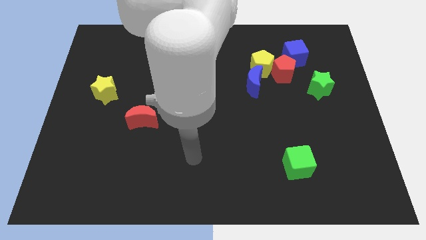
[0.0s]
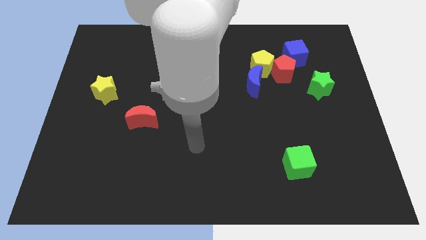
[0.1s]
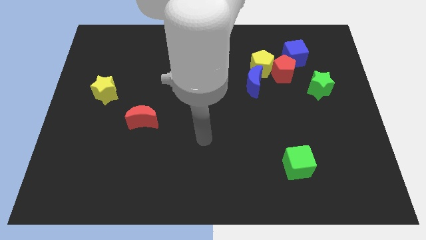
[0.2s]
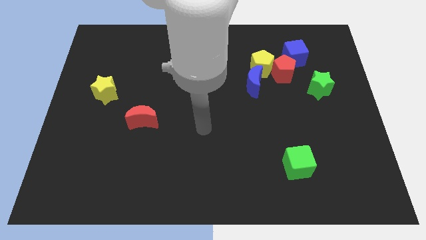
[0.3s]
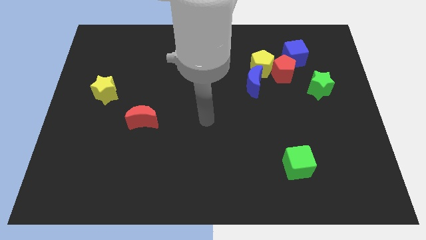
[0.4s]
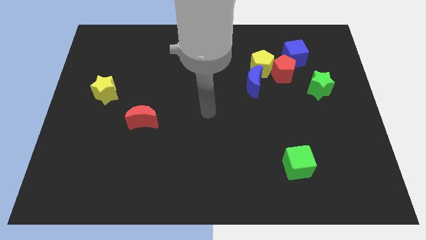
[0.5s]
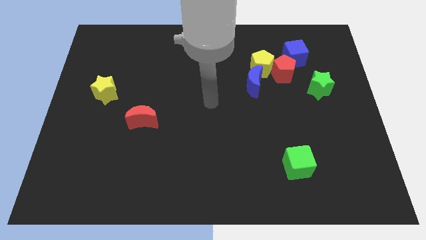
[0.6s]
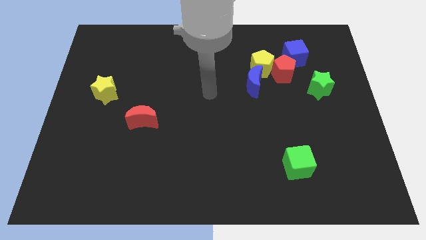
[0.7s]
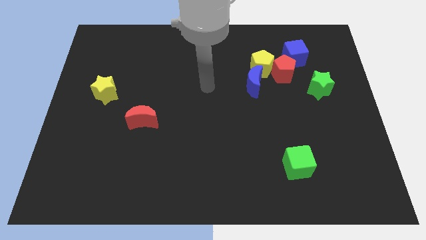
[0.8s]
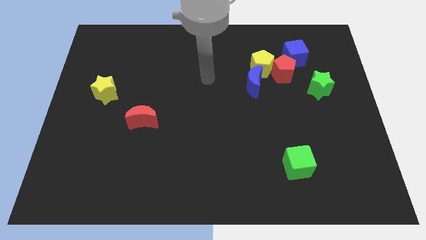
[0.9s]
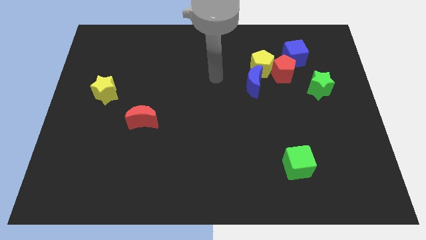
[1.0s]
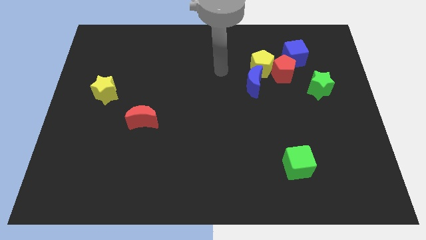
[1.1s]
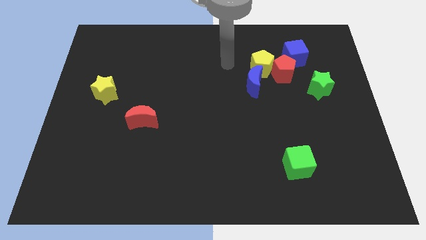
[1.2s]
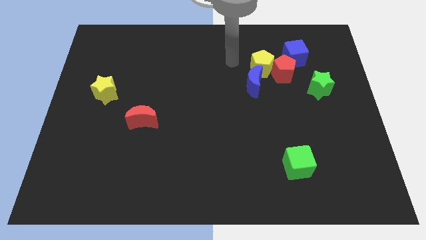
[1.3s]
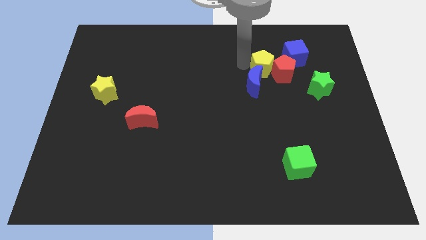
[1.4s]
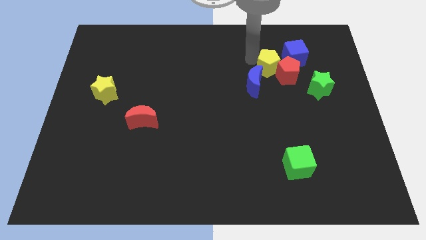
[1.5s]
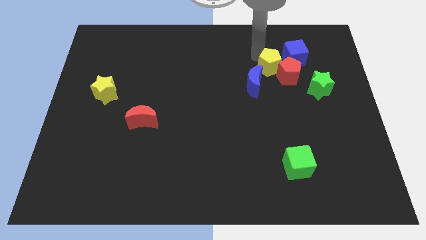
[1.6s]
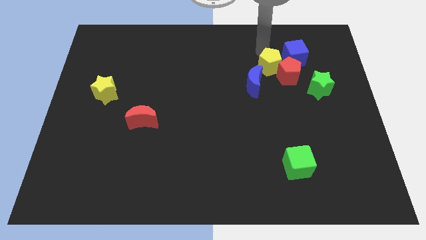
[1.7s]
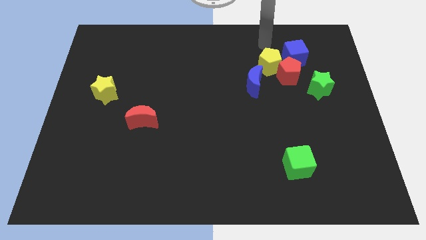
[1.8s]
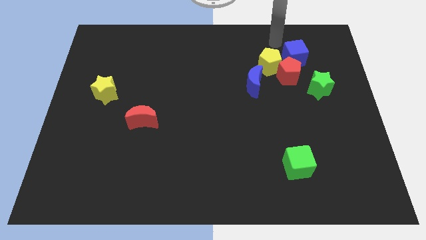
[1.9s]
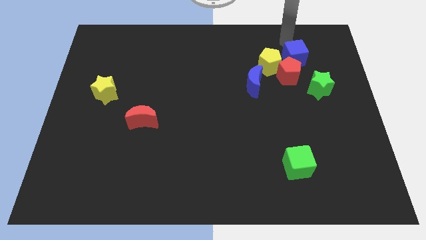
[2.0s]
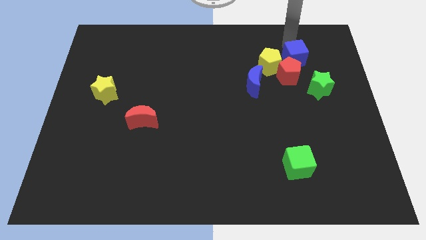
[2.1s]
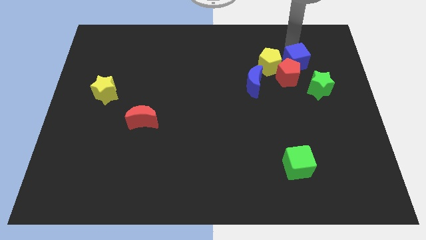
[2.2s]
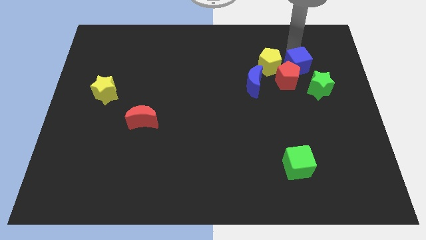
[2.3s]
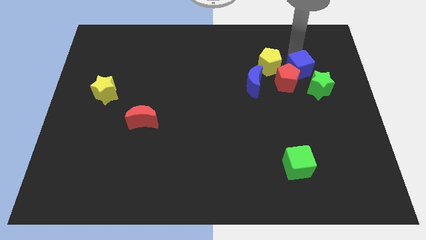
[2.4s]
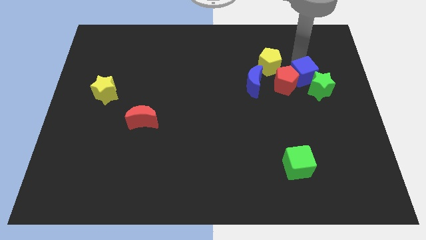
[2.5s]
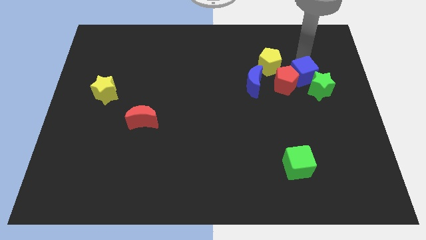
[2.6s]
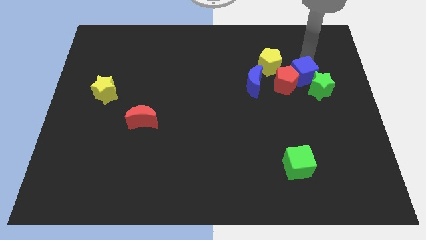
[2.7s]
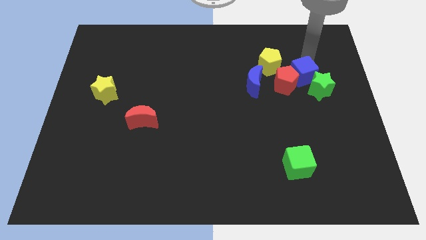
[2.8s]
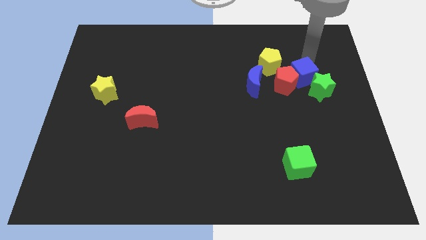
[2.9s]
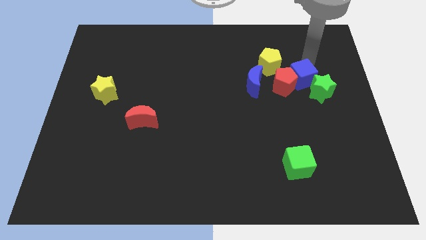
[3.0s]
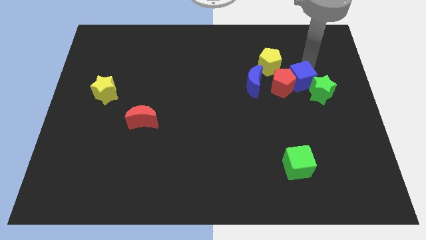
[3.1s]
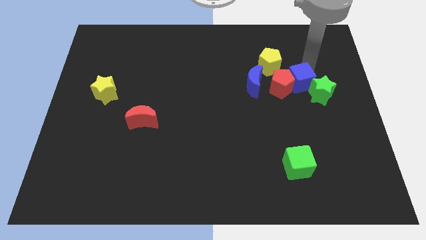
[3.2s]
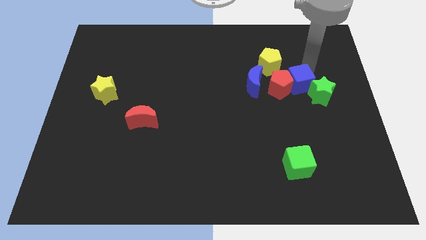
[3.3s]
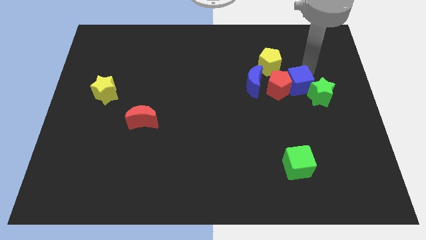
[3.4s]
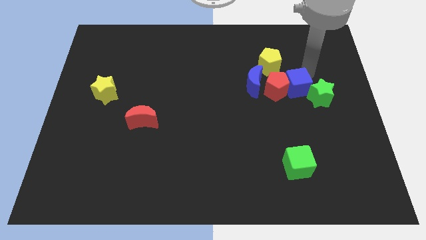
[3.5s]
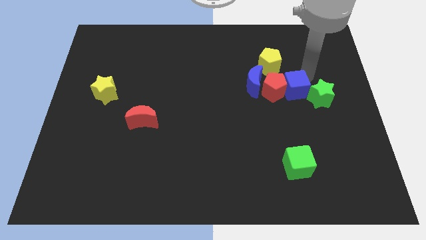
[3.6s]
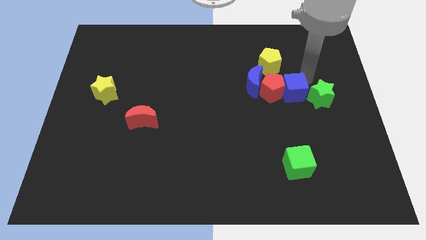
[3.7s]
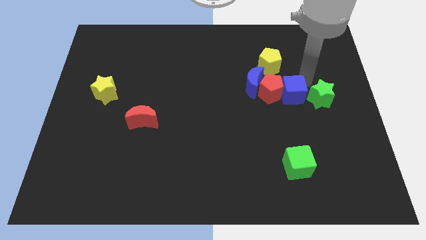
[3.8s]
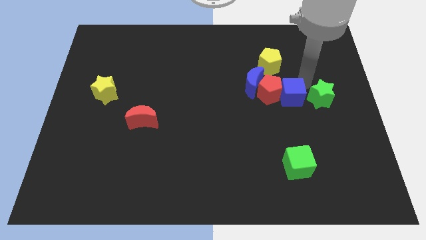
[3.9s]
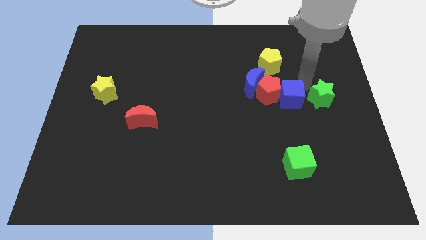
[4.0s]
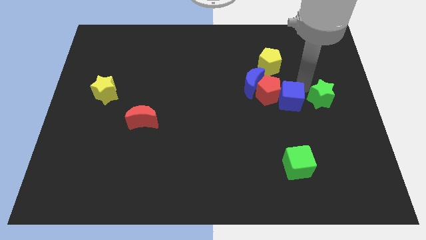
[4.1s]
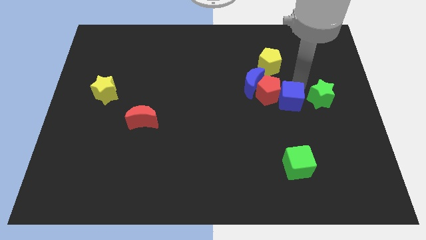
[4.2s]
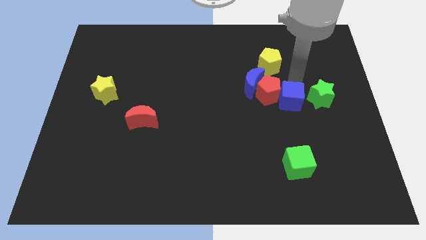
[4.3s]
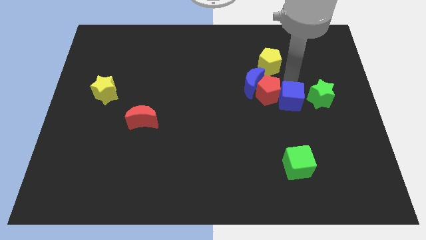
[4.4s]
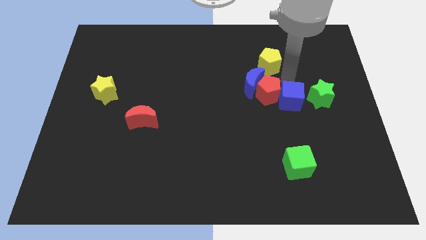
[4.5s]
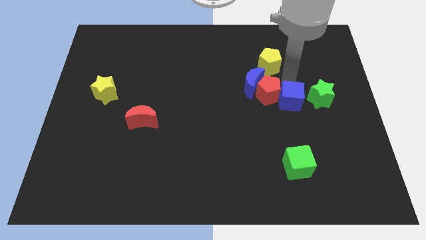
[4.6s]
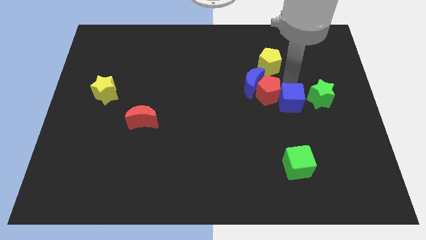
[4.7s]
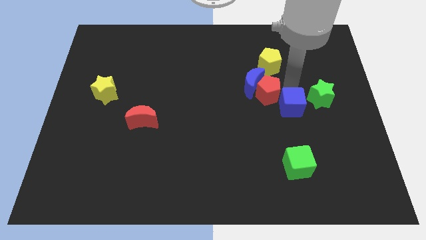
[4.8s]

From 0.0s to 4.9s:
put the blue cube above the green cube

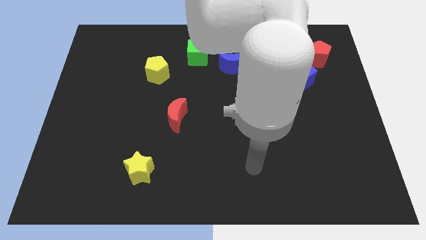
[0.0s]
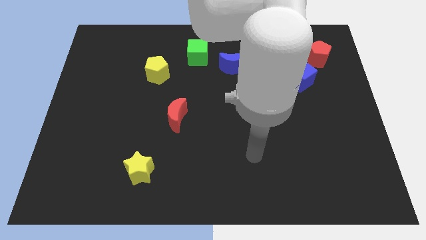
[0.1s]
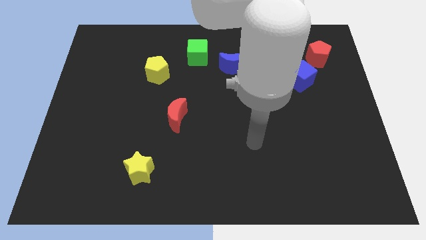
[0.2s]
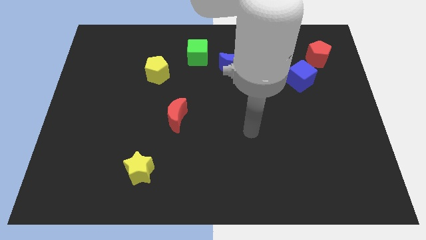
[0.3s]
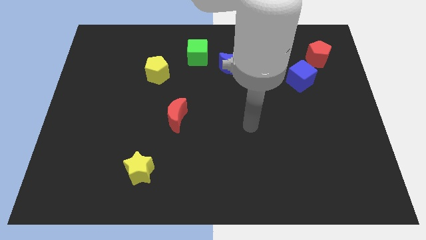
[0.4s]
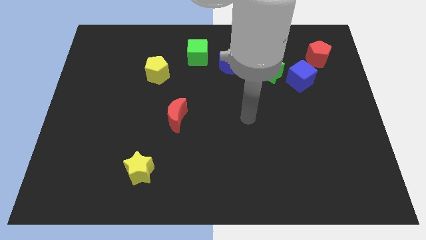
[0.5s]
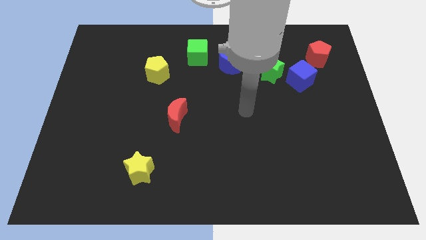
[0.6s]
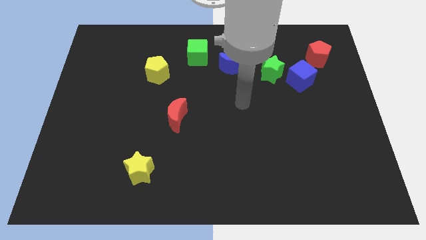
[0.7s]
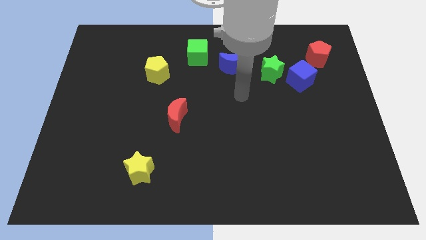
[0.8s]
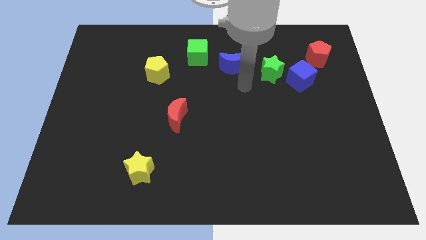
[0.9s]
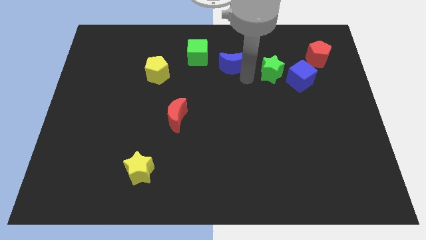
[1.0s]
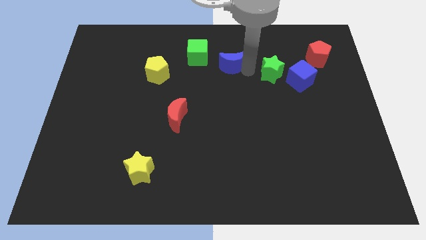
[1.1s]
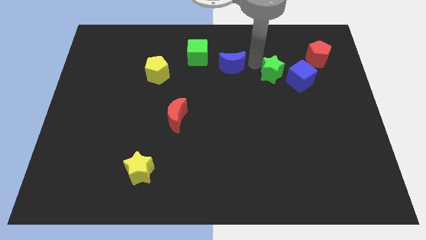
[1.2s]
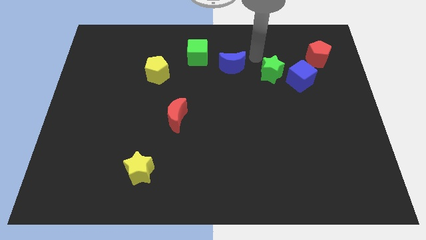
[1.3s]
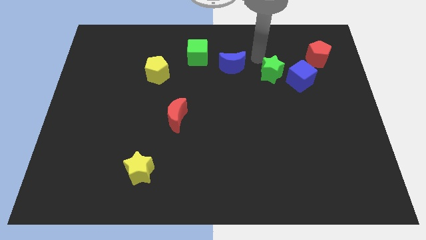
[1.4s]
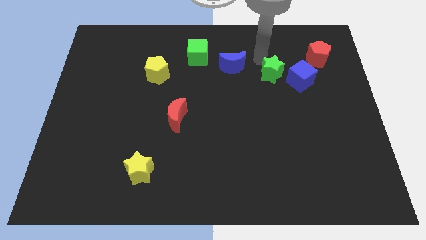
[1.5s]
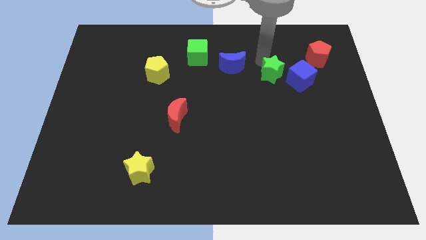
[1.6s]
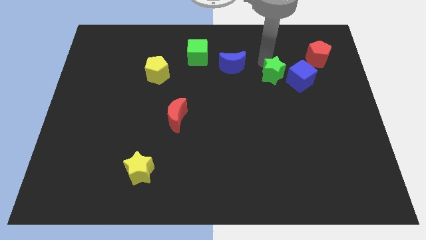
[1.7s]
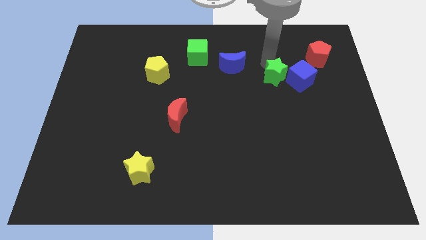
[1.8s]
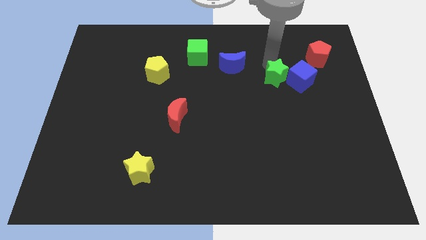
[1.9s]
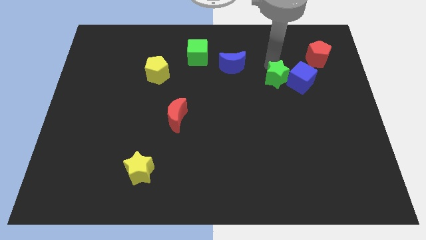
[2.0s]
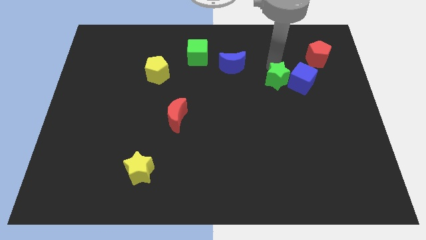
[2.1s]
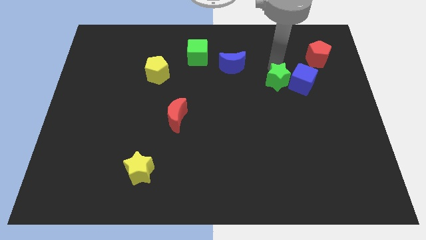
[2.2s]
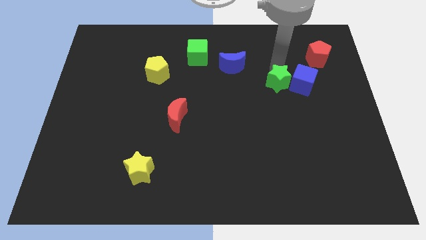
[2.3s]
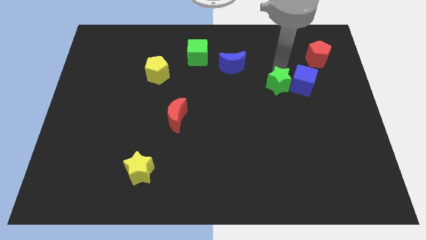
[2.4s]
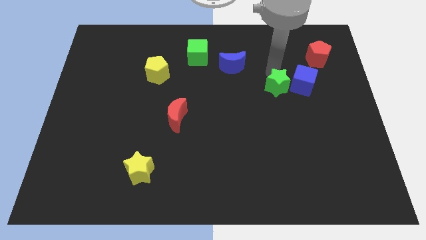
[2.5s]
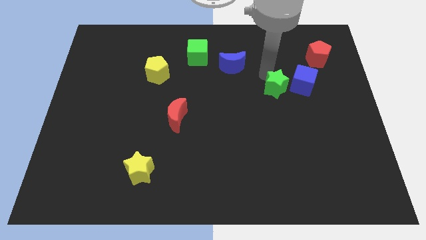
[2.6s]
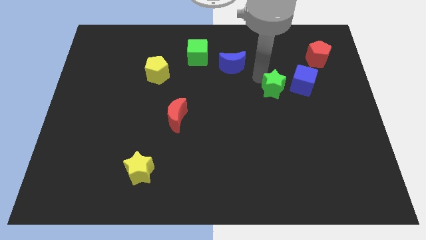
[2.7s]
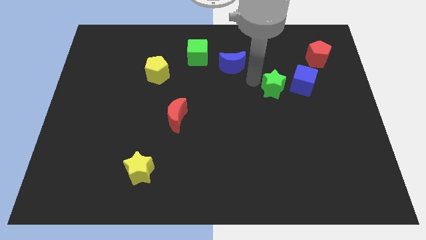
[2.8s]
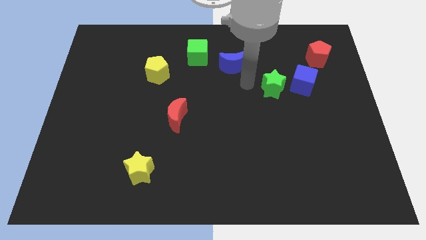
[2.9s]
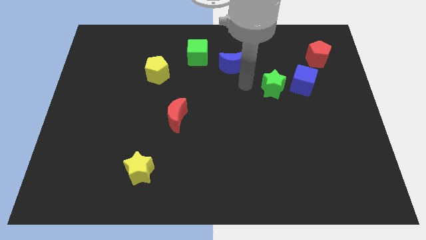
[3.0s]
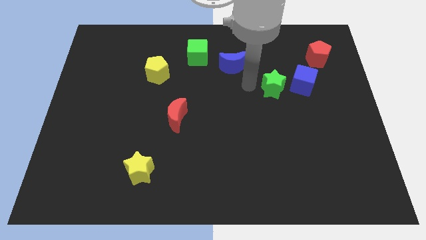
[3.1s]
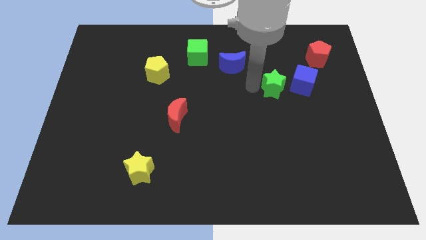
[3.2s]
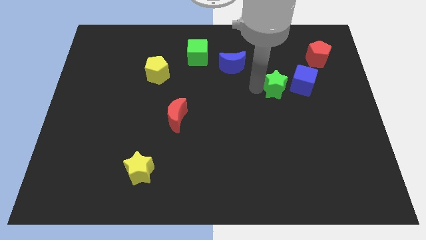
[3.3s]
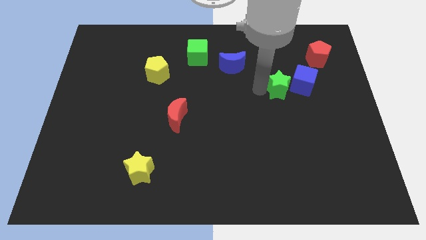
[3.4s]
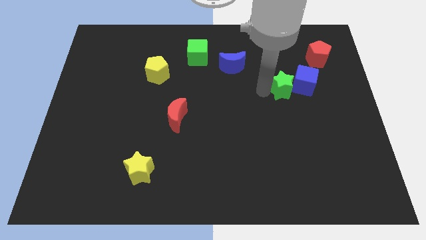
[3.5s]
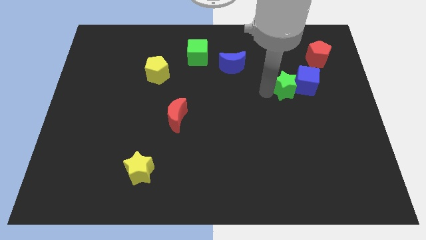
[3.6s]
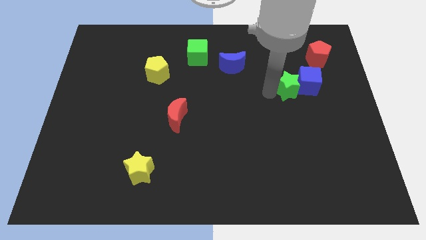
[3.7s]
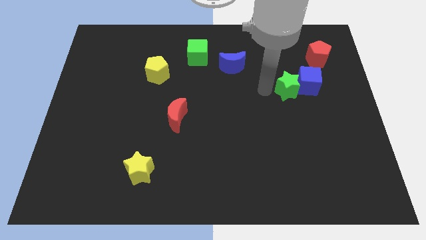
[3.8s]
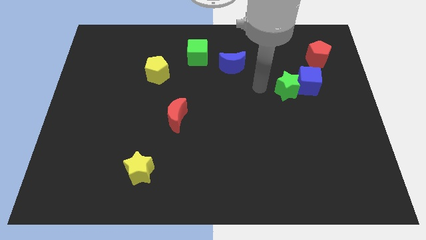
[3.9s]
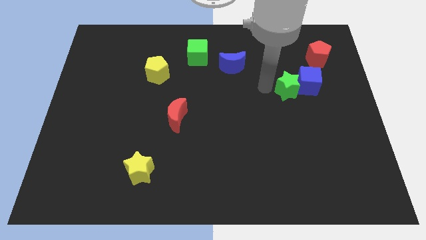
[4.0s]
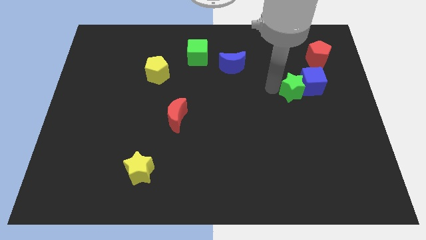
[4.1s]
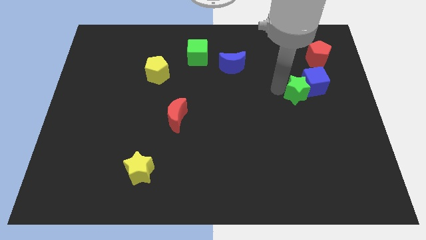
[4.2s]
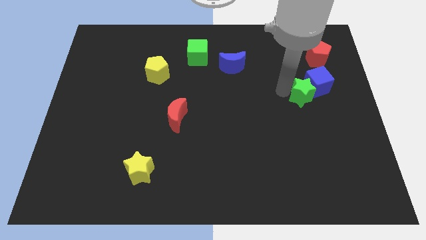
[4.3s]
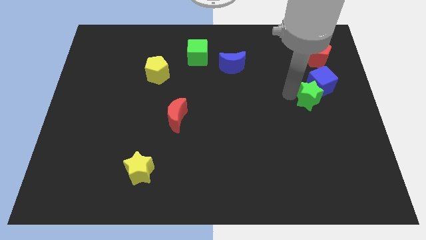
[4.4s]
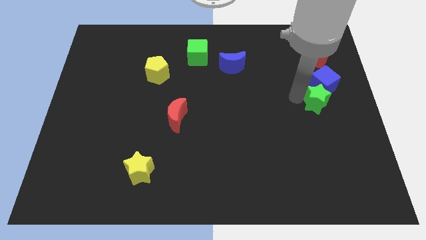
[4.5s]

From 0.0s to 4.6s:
push the green star to the bottom side of the red pentagon
